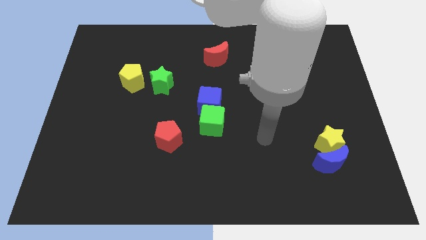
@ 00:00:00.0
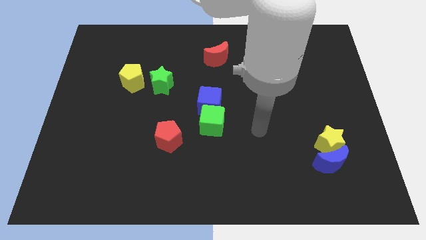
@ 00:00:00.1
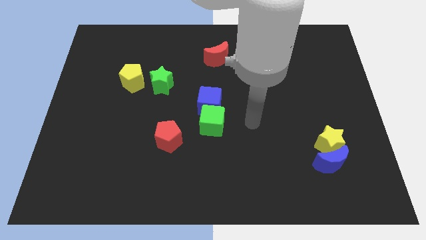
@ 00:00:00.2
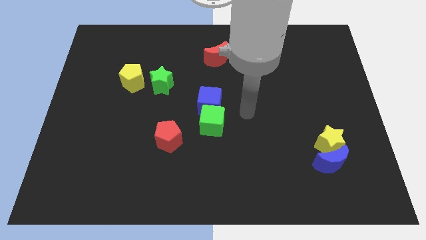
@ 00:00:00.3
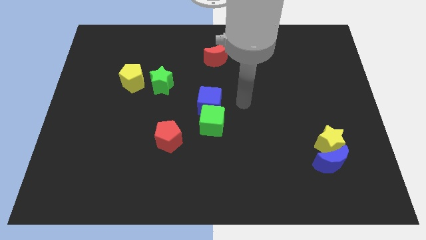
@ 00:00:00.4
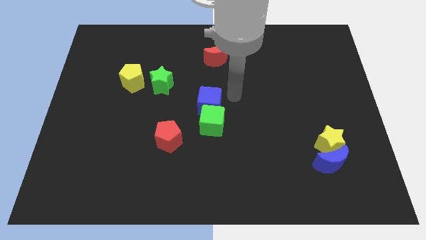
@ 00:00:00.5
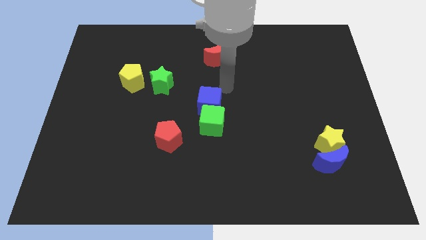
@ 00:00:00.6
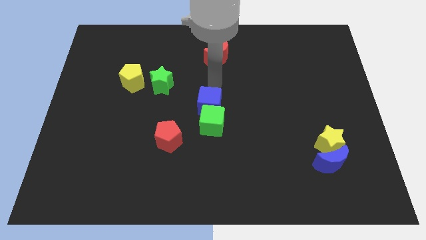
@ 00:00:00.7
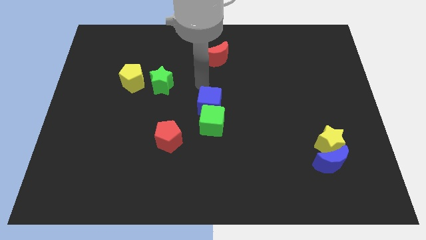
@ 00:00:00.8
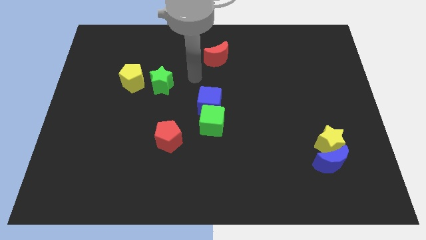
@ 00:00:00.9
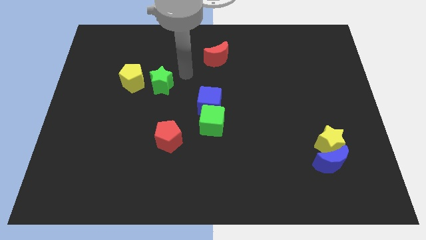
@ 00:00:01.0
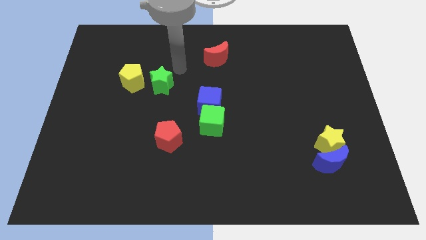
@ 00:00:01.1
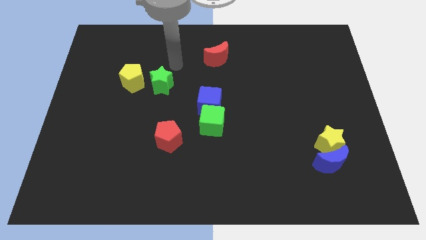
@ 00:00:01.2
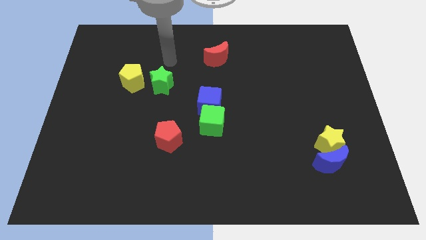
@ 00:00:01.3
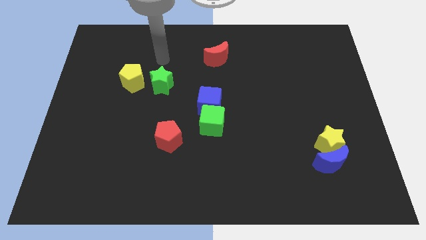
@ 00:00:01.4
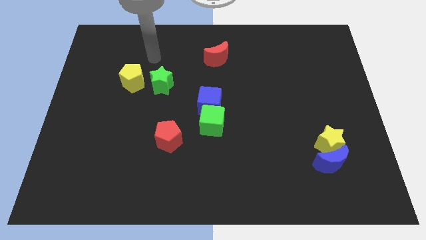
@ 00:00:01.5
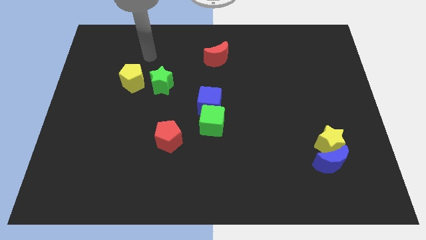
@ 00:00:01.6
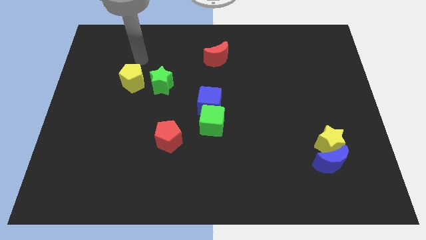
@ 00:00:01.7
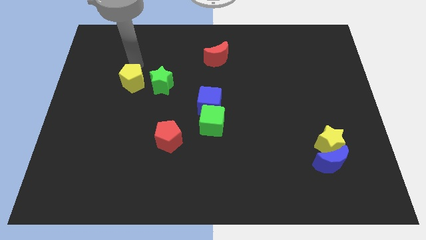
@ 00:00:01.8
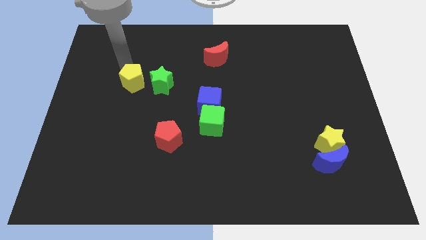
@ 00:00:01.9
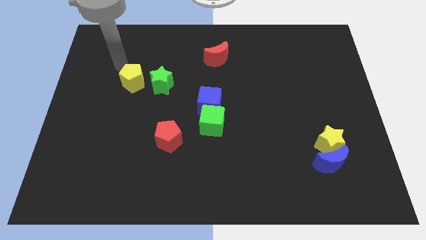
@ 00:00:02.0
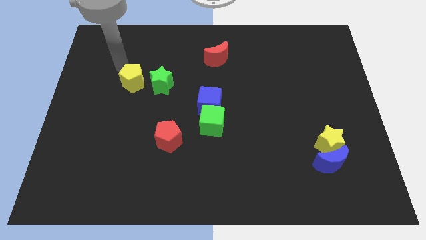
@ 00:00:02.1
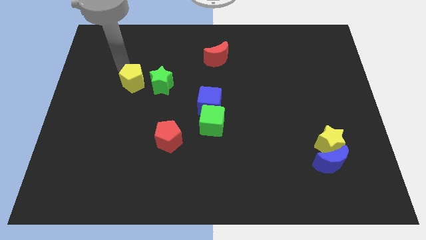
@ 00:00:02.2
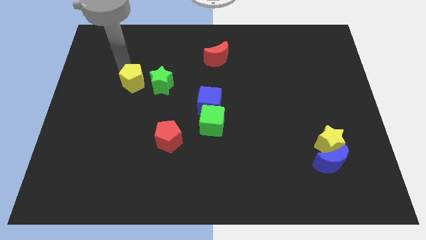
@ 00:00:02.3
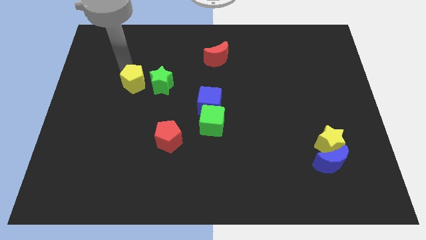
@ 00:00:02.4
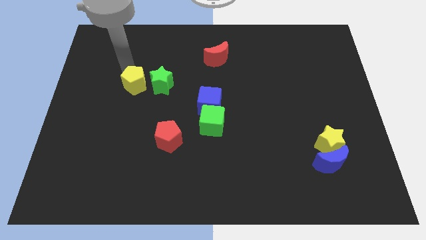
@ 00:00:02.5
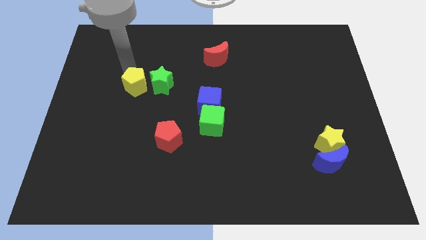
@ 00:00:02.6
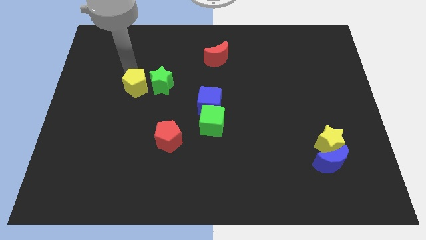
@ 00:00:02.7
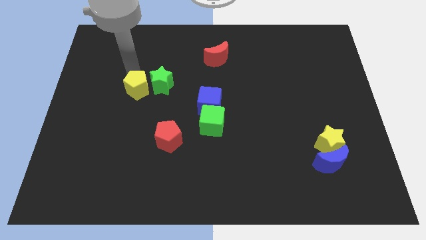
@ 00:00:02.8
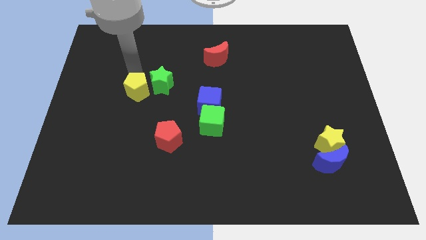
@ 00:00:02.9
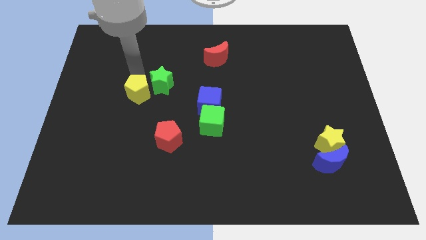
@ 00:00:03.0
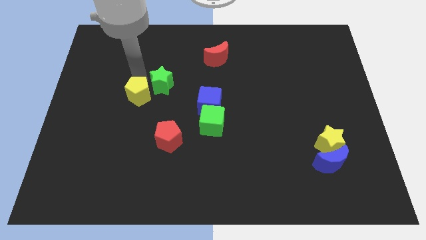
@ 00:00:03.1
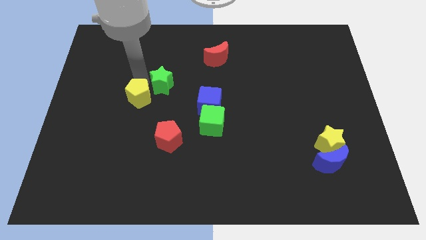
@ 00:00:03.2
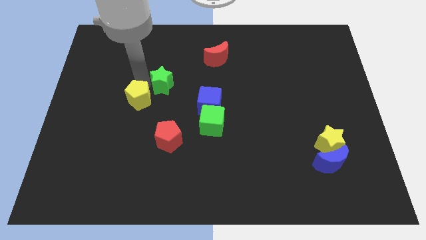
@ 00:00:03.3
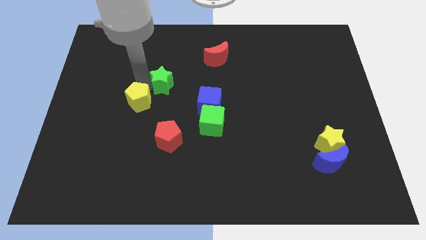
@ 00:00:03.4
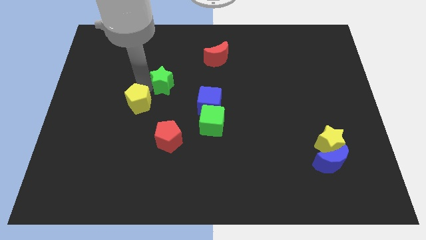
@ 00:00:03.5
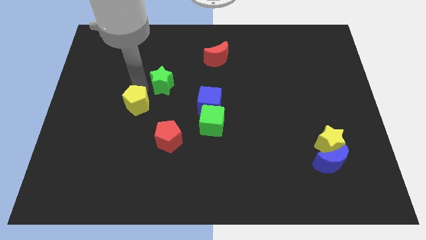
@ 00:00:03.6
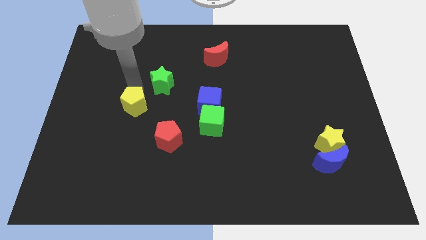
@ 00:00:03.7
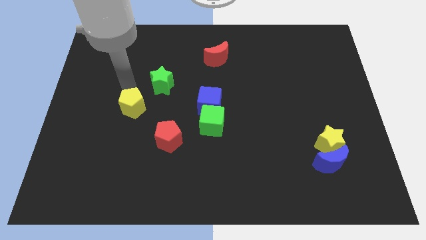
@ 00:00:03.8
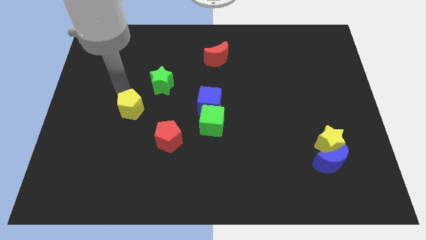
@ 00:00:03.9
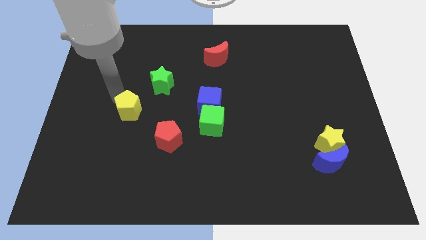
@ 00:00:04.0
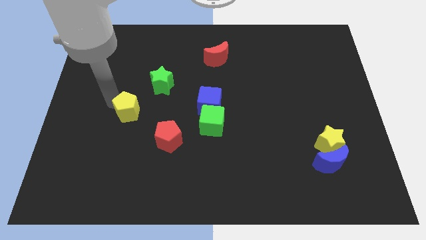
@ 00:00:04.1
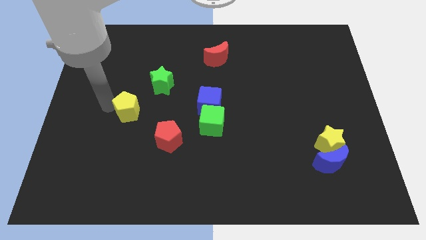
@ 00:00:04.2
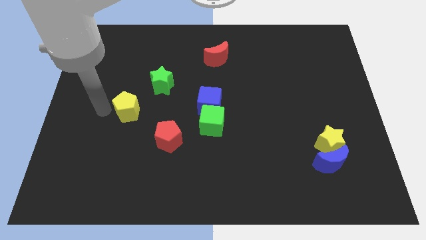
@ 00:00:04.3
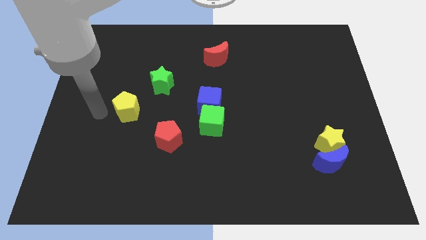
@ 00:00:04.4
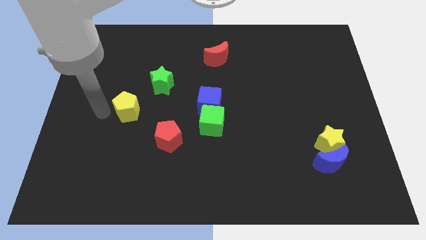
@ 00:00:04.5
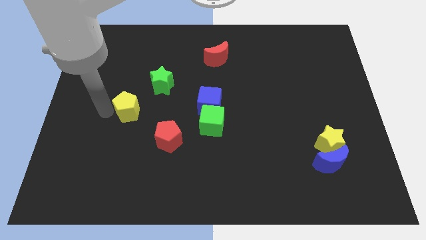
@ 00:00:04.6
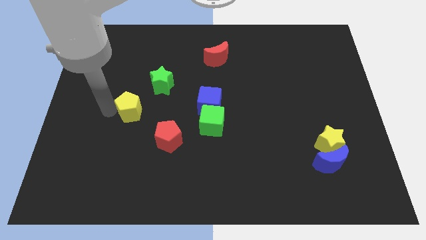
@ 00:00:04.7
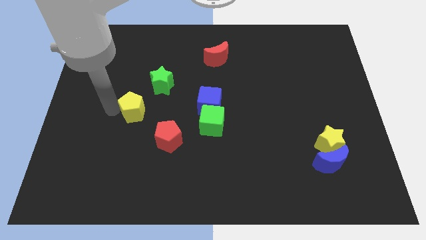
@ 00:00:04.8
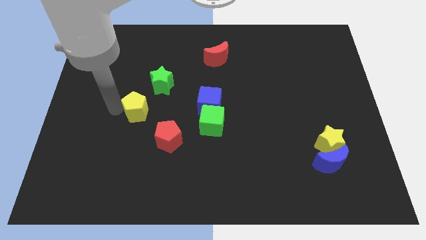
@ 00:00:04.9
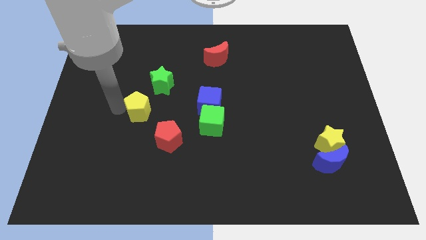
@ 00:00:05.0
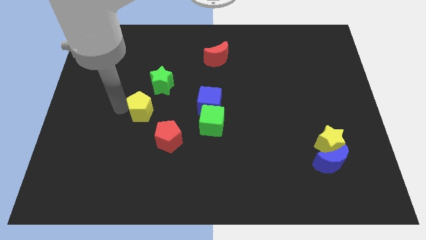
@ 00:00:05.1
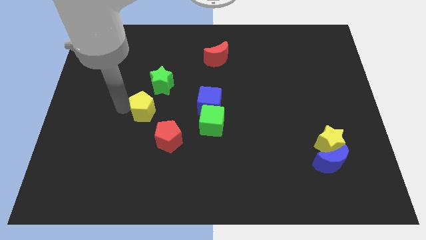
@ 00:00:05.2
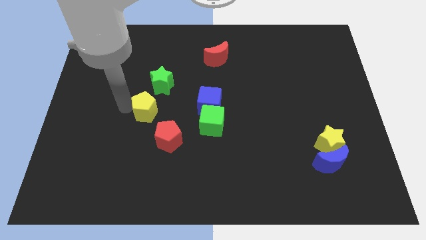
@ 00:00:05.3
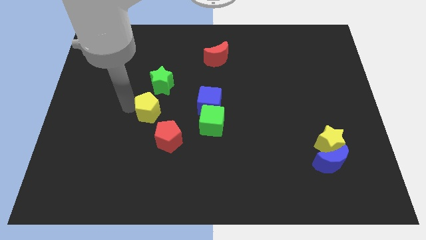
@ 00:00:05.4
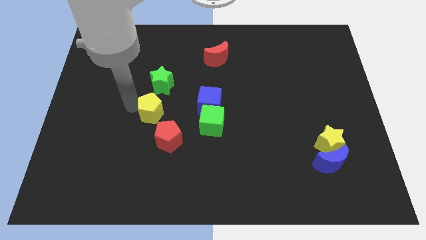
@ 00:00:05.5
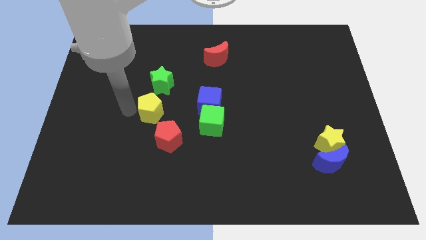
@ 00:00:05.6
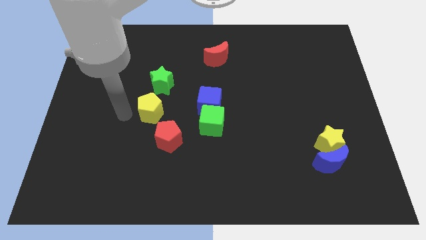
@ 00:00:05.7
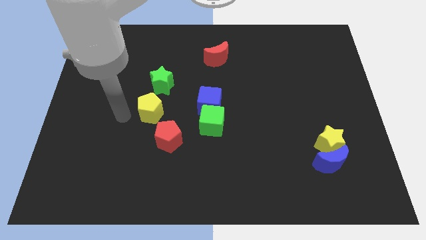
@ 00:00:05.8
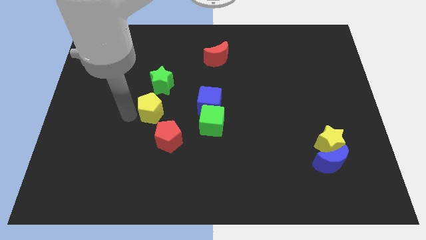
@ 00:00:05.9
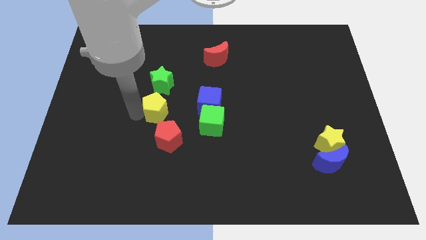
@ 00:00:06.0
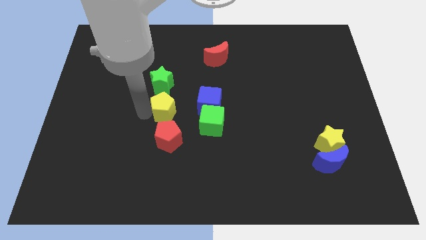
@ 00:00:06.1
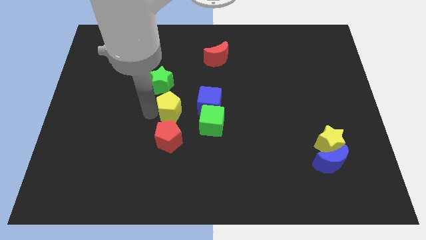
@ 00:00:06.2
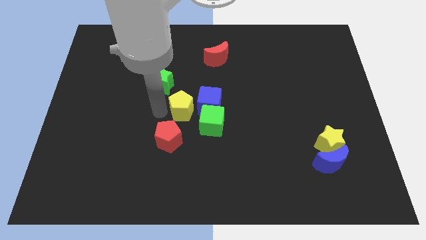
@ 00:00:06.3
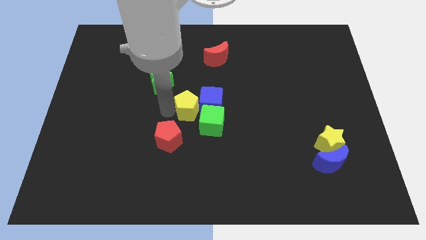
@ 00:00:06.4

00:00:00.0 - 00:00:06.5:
put the yellow pentagon close to the blue cube

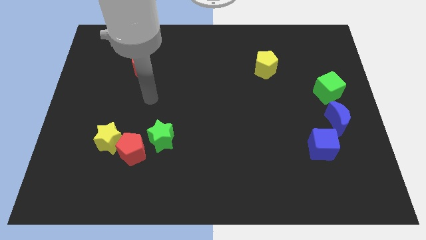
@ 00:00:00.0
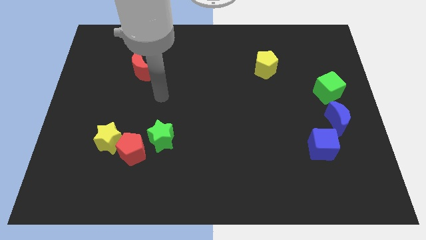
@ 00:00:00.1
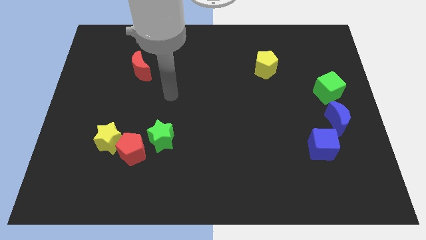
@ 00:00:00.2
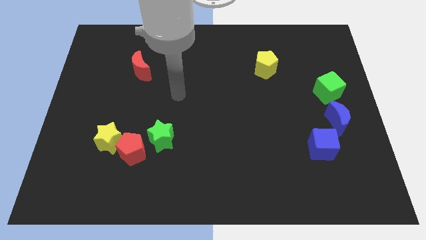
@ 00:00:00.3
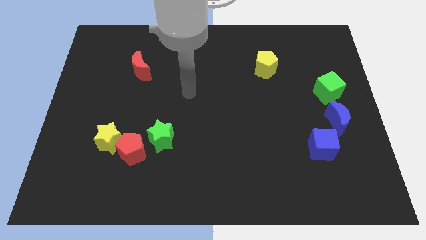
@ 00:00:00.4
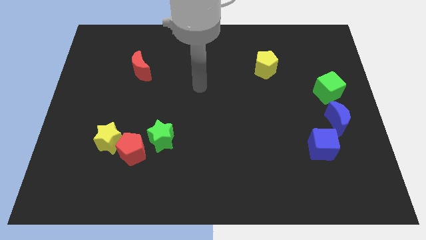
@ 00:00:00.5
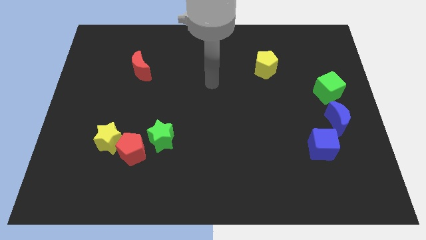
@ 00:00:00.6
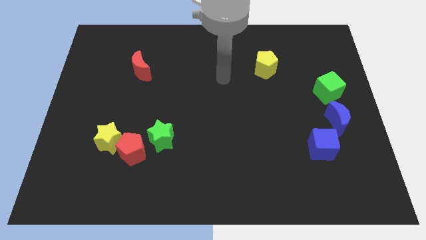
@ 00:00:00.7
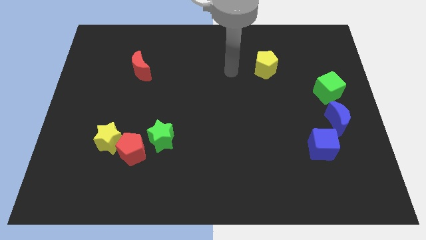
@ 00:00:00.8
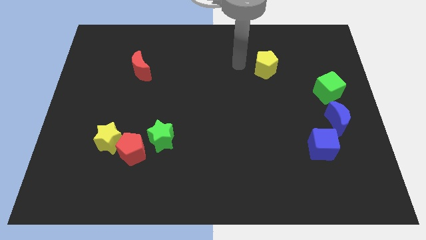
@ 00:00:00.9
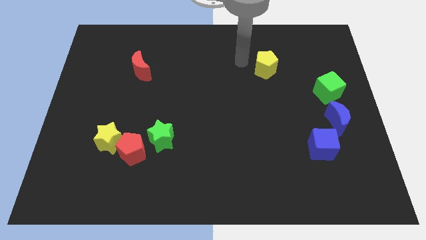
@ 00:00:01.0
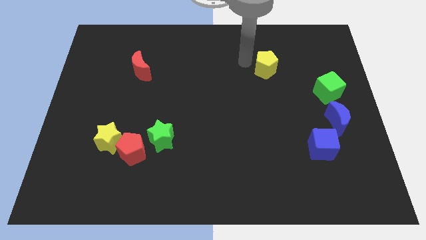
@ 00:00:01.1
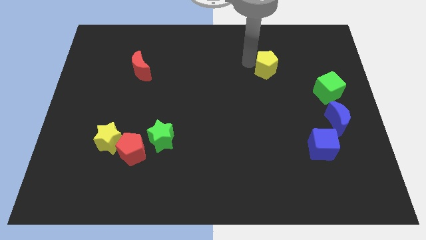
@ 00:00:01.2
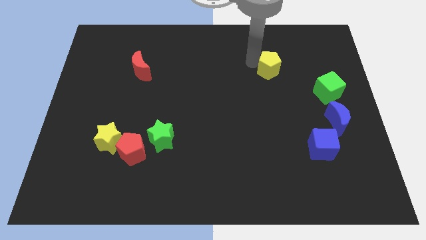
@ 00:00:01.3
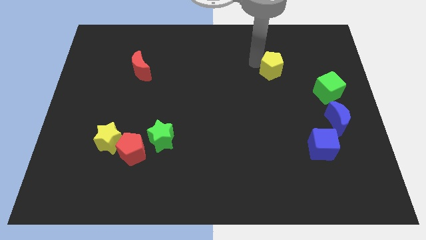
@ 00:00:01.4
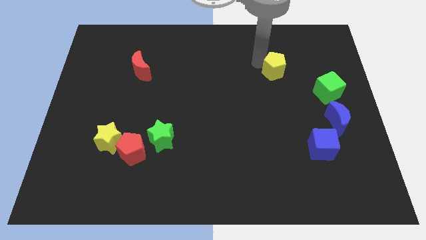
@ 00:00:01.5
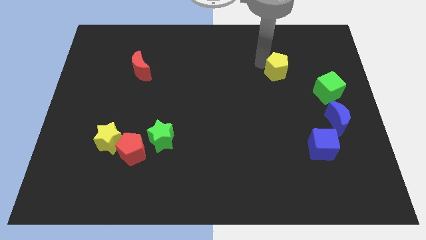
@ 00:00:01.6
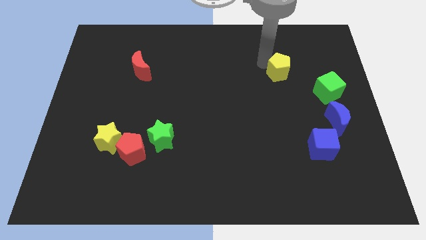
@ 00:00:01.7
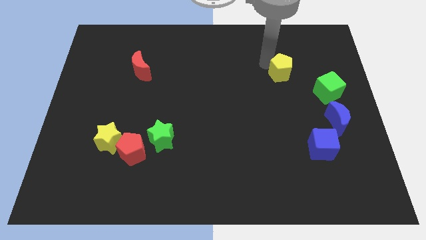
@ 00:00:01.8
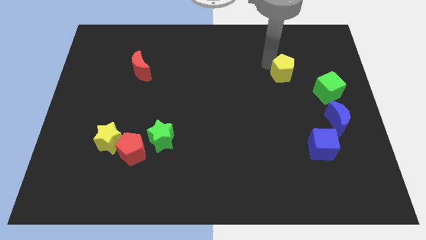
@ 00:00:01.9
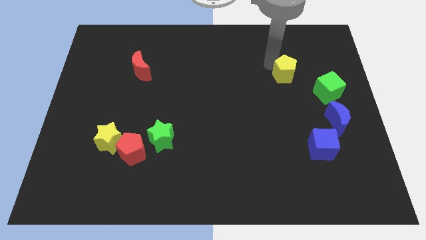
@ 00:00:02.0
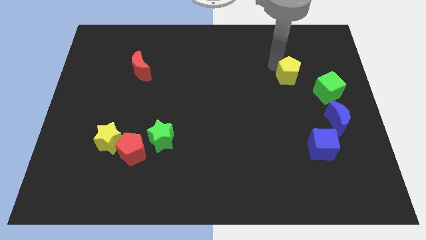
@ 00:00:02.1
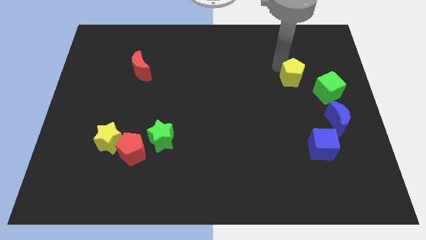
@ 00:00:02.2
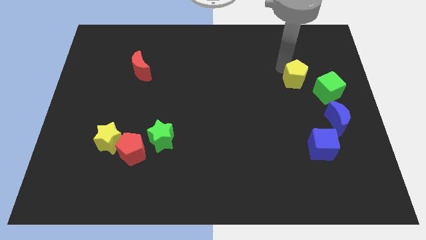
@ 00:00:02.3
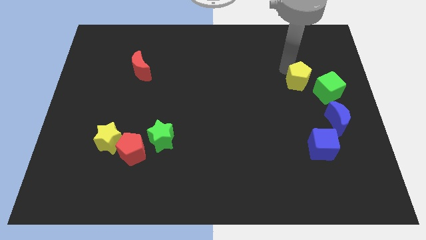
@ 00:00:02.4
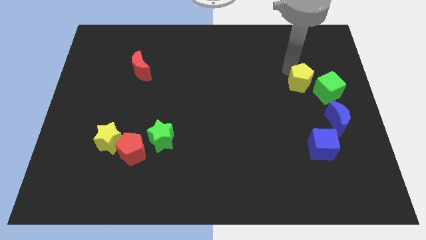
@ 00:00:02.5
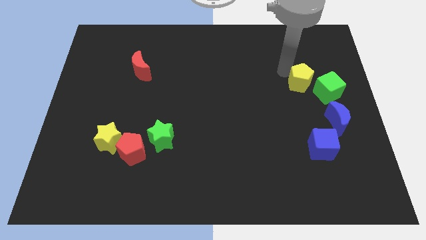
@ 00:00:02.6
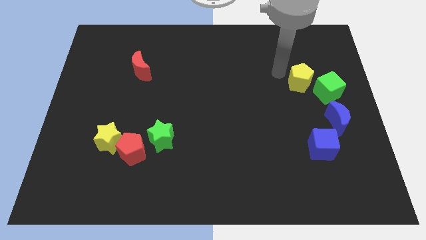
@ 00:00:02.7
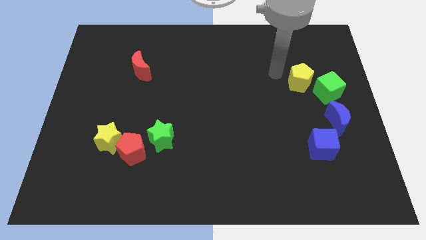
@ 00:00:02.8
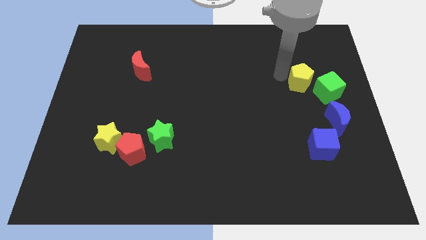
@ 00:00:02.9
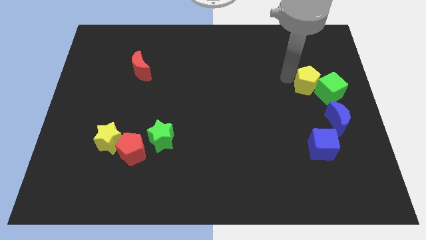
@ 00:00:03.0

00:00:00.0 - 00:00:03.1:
push the yellow pentagon close to the green cube
